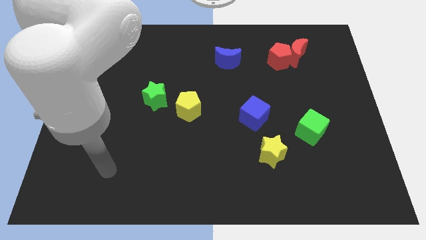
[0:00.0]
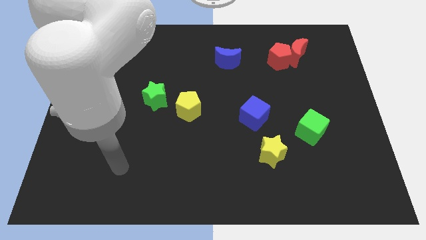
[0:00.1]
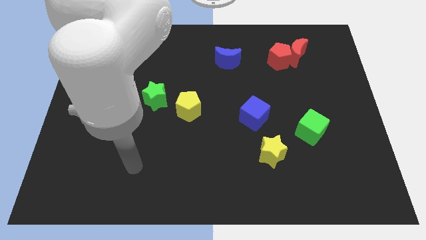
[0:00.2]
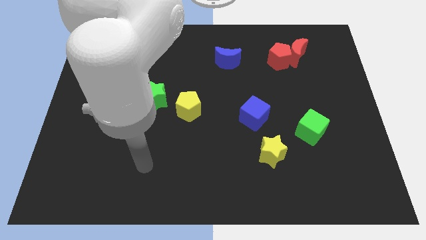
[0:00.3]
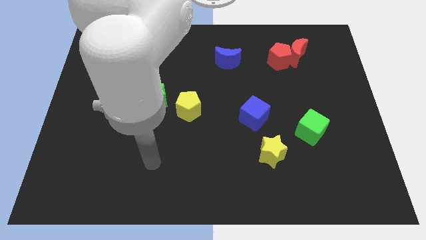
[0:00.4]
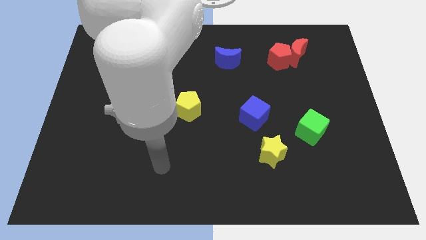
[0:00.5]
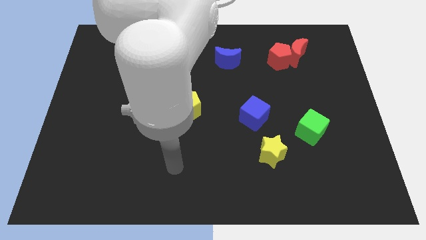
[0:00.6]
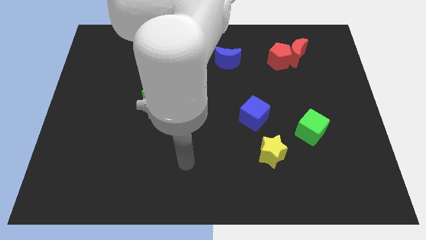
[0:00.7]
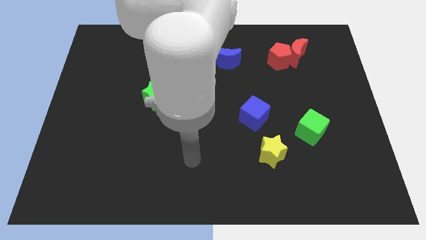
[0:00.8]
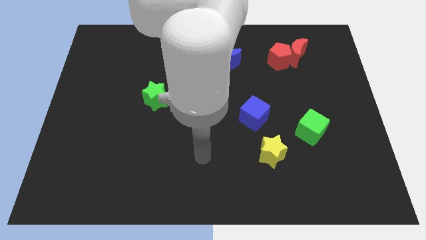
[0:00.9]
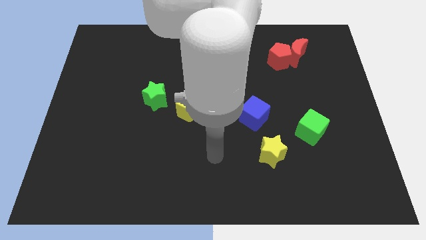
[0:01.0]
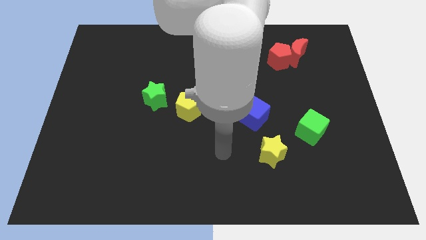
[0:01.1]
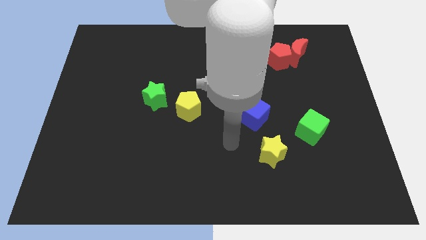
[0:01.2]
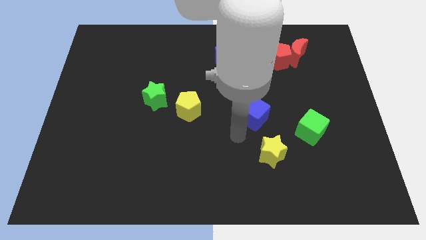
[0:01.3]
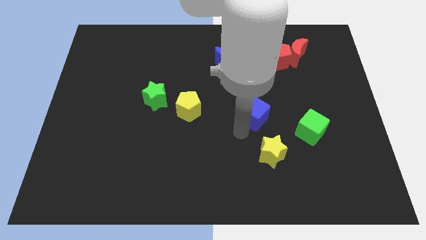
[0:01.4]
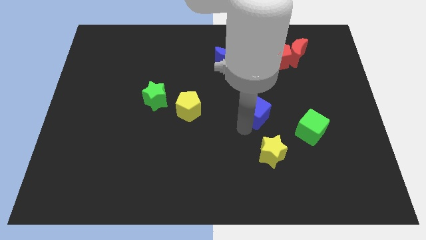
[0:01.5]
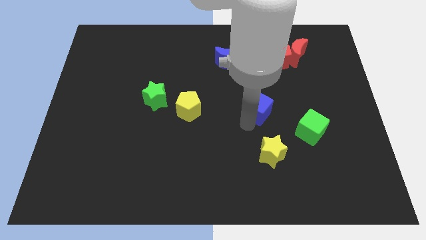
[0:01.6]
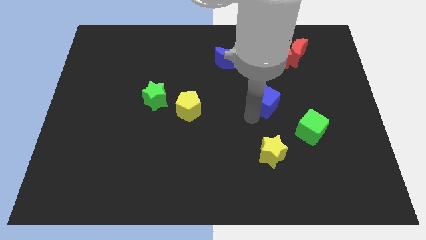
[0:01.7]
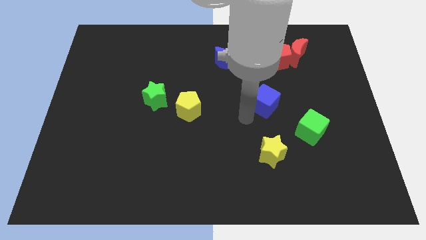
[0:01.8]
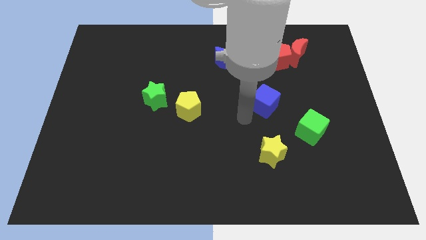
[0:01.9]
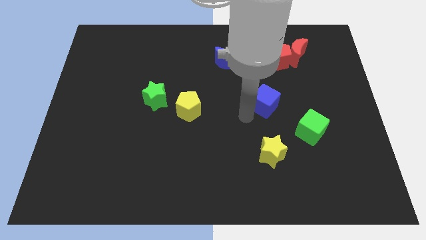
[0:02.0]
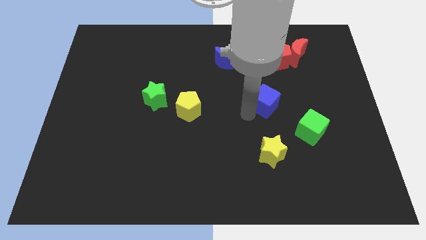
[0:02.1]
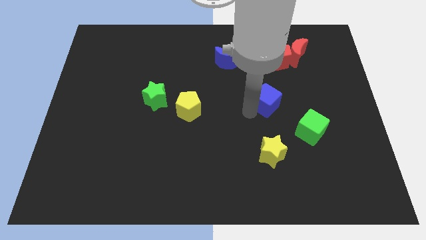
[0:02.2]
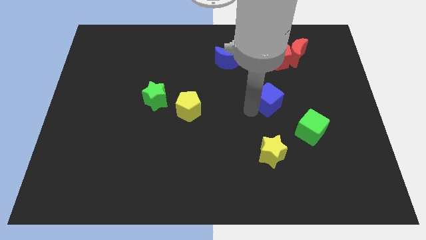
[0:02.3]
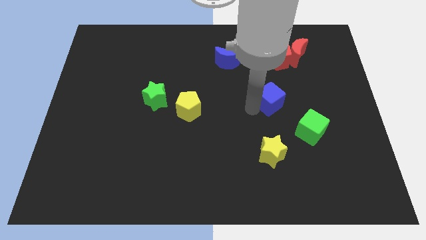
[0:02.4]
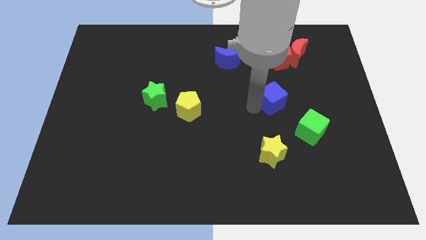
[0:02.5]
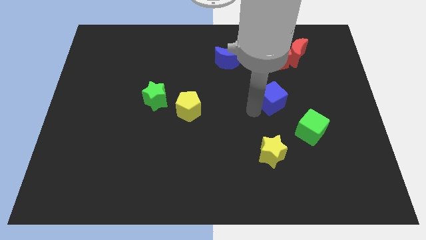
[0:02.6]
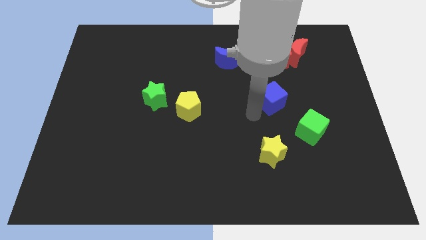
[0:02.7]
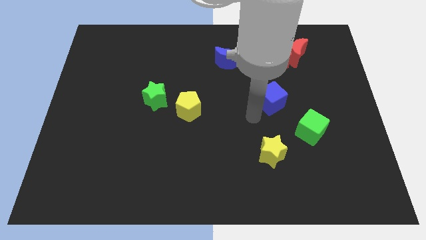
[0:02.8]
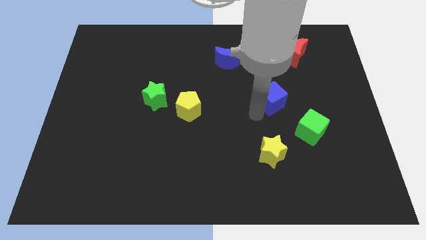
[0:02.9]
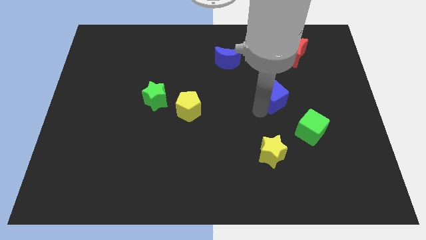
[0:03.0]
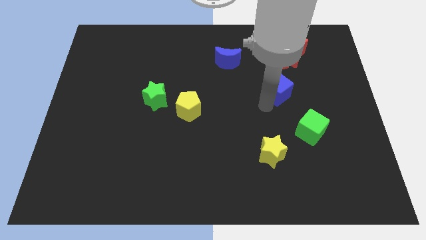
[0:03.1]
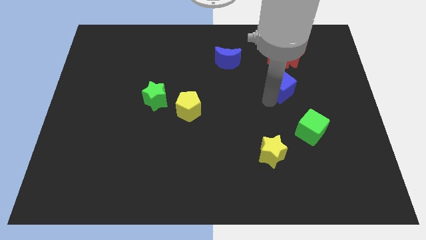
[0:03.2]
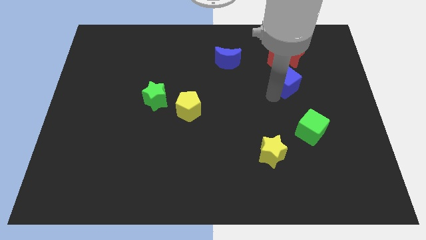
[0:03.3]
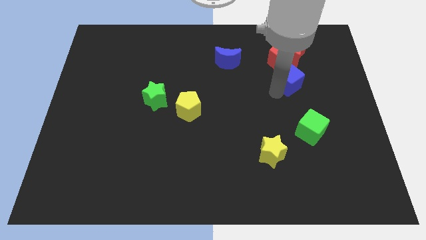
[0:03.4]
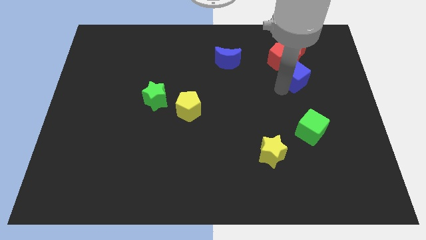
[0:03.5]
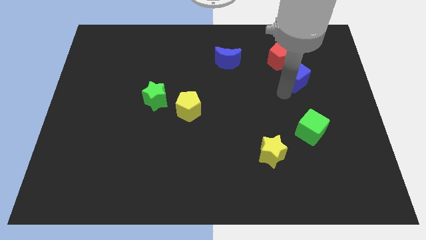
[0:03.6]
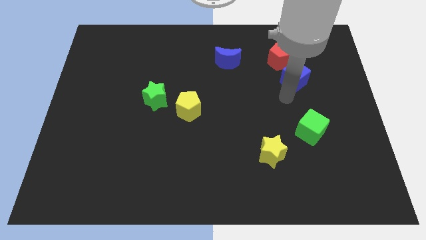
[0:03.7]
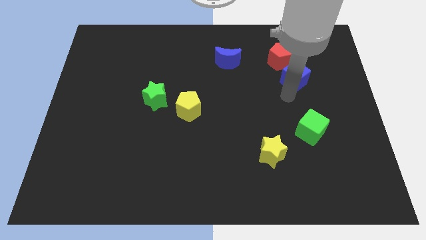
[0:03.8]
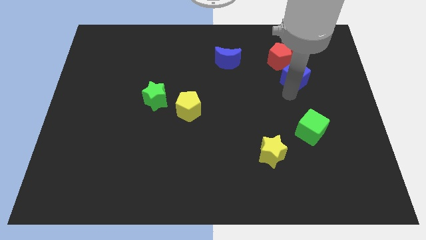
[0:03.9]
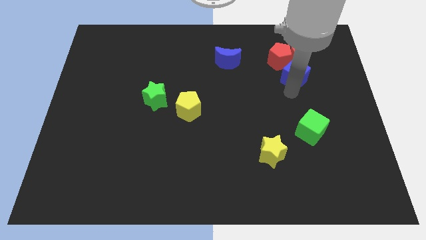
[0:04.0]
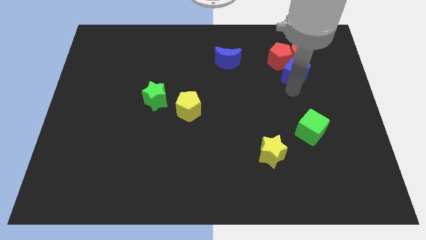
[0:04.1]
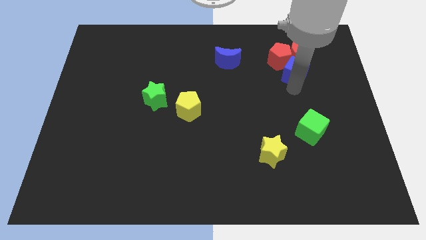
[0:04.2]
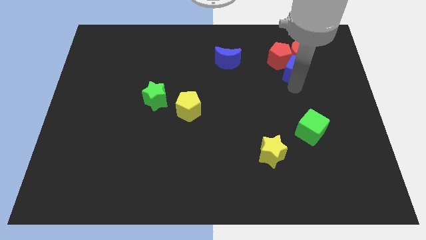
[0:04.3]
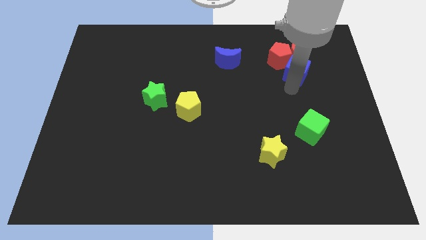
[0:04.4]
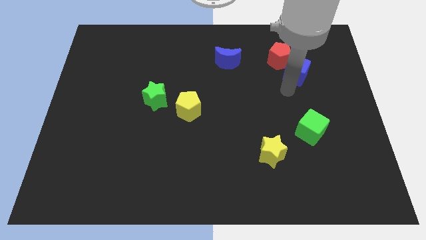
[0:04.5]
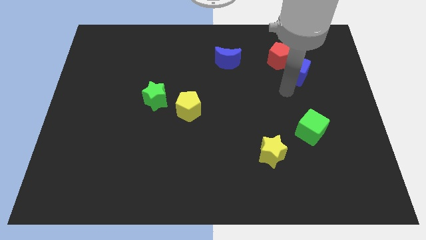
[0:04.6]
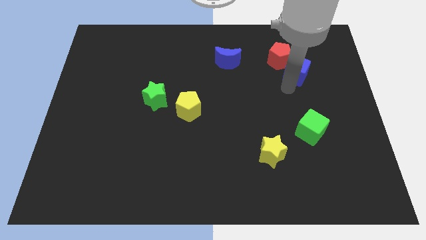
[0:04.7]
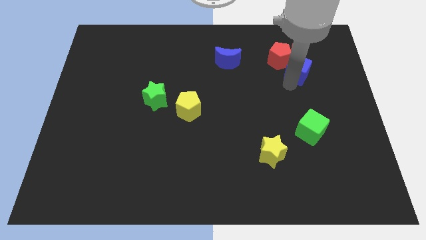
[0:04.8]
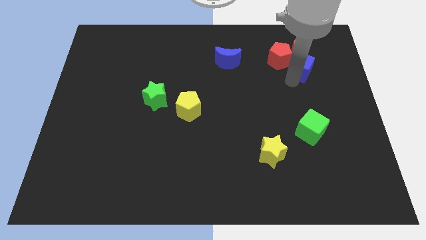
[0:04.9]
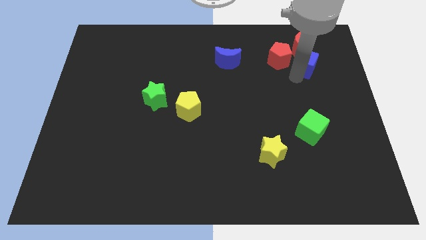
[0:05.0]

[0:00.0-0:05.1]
put the blue cube to the red moon

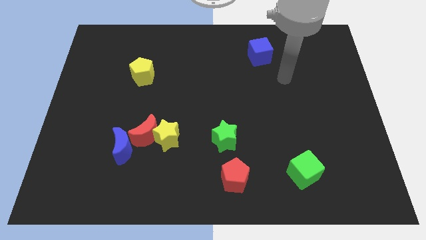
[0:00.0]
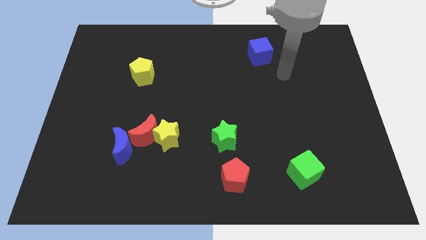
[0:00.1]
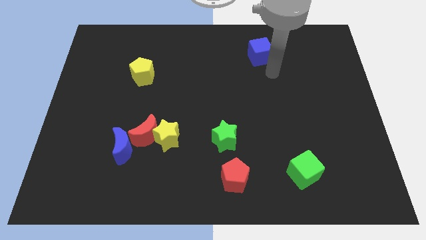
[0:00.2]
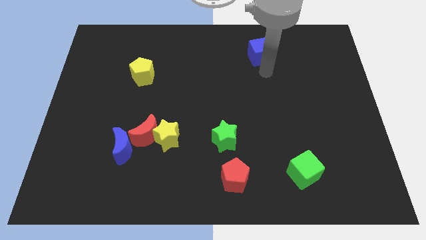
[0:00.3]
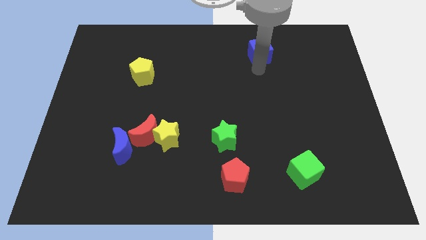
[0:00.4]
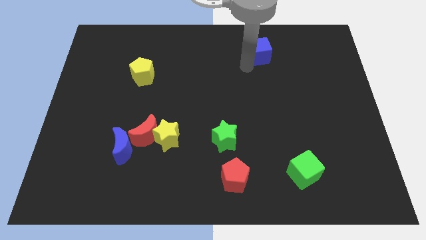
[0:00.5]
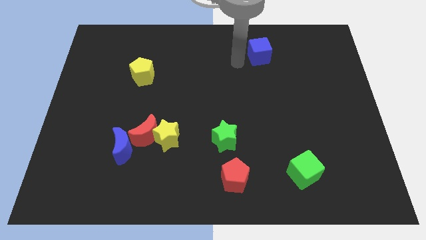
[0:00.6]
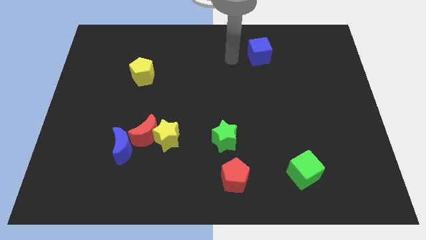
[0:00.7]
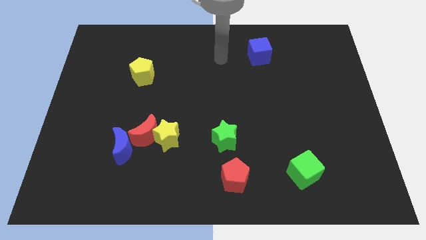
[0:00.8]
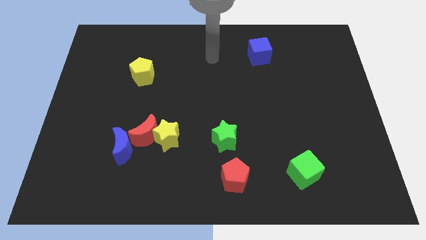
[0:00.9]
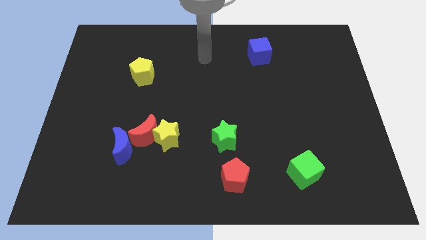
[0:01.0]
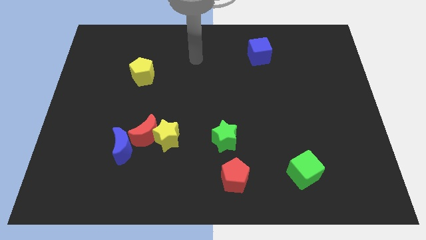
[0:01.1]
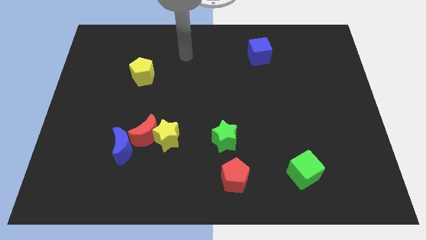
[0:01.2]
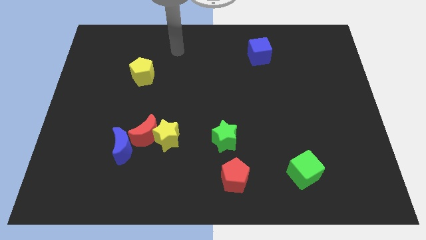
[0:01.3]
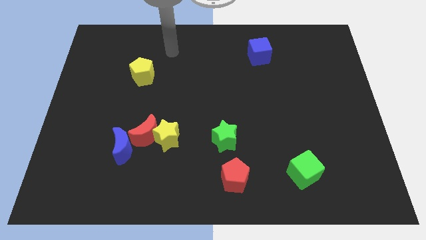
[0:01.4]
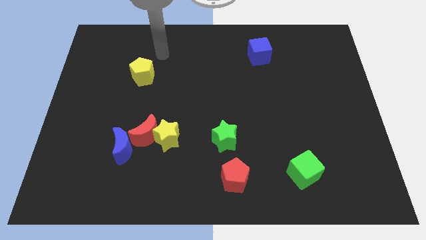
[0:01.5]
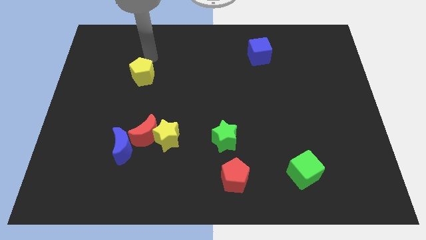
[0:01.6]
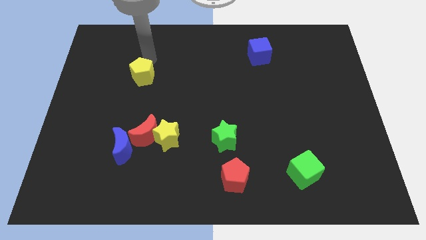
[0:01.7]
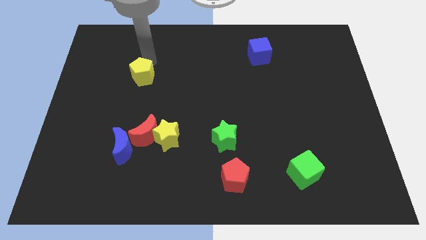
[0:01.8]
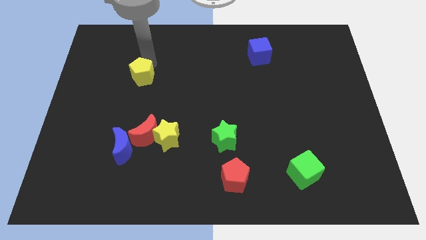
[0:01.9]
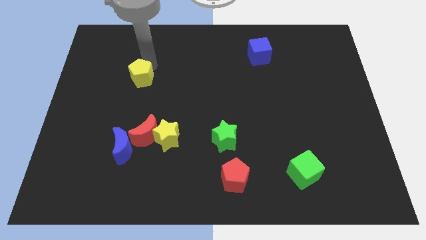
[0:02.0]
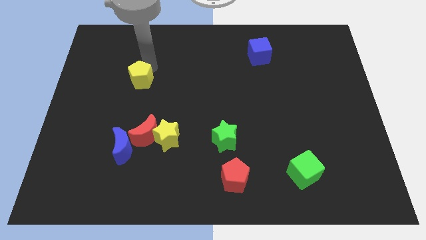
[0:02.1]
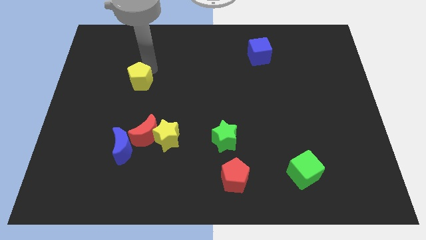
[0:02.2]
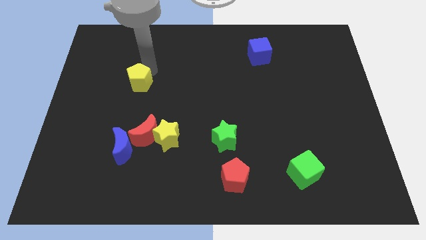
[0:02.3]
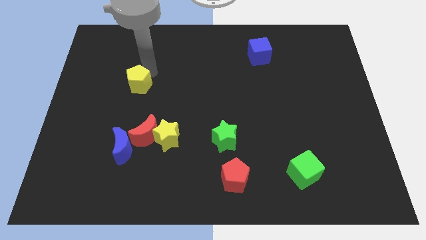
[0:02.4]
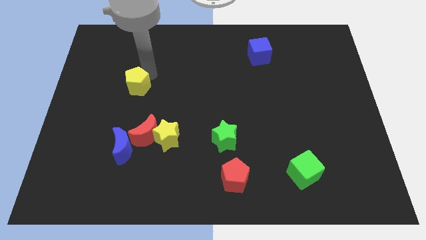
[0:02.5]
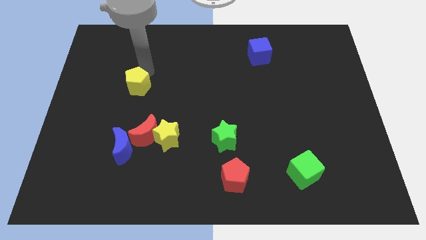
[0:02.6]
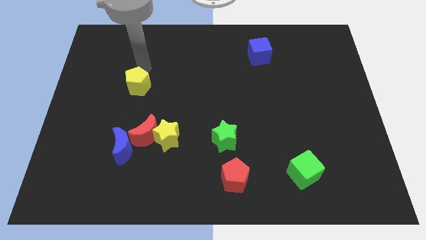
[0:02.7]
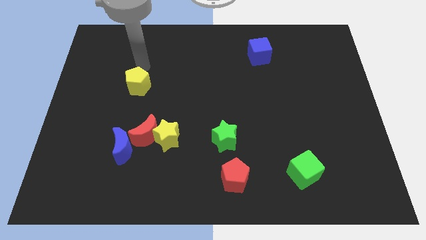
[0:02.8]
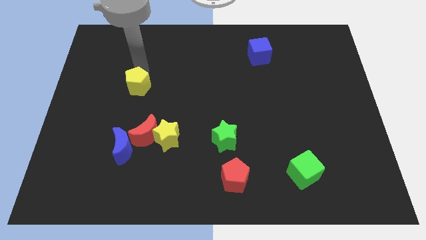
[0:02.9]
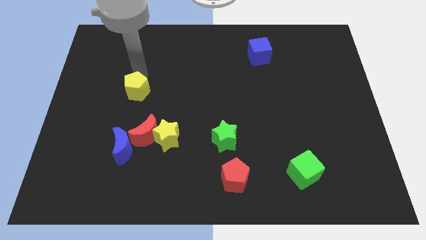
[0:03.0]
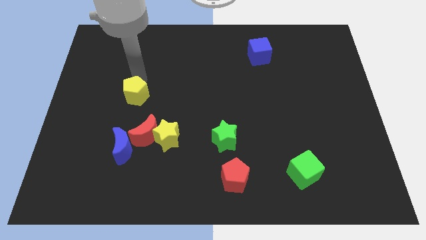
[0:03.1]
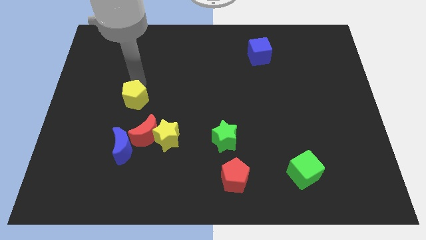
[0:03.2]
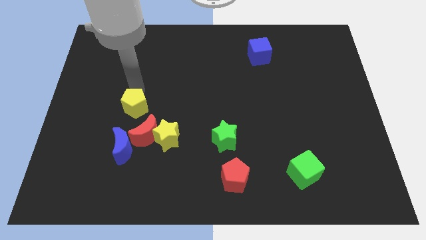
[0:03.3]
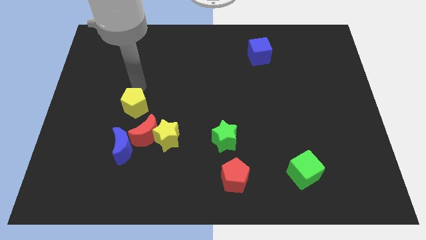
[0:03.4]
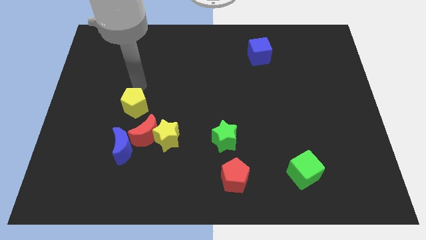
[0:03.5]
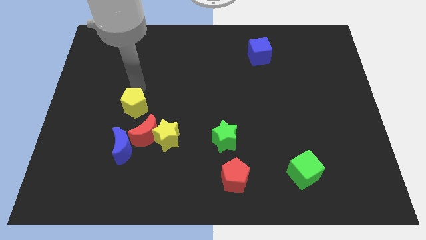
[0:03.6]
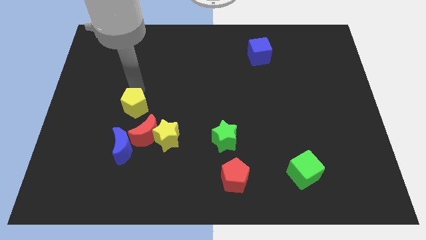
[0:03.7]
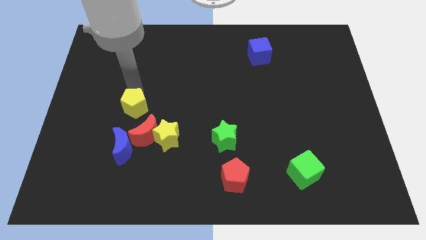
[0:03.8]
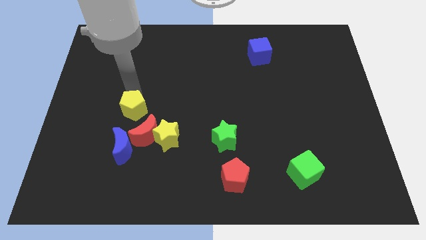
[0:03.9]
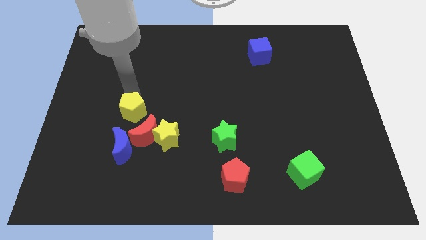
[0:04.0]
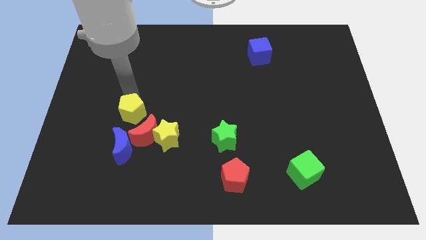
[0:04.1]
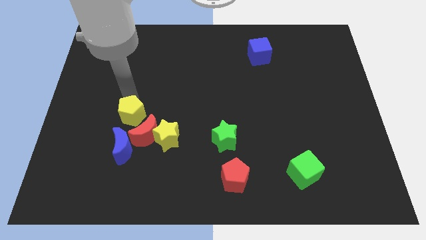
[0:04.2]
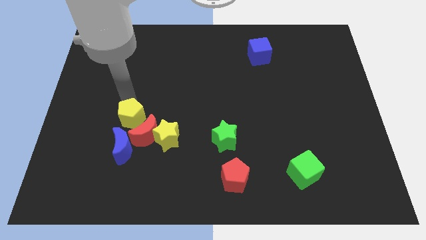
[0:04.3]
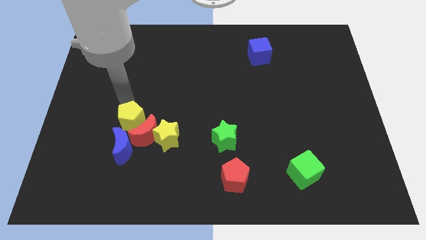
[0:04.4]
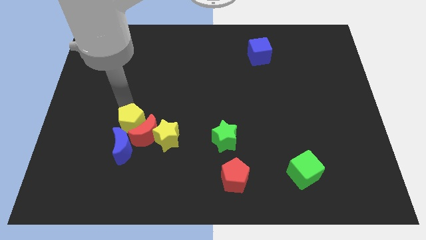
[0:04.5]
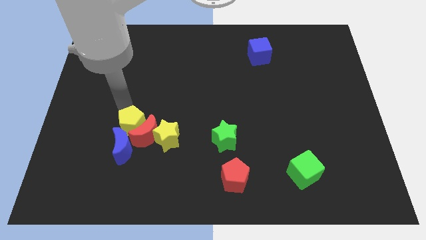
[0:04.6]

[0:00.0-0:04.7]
put the yellow pentagon to the blue moon
